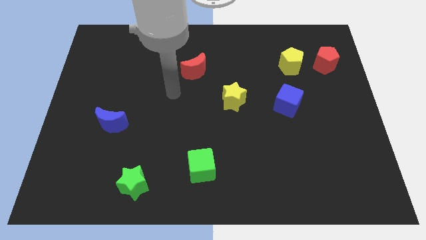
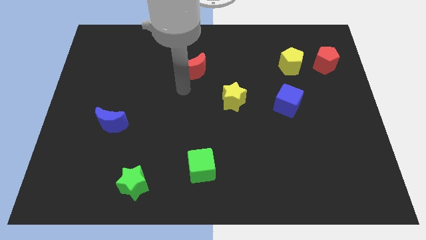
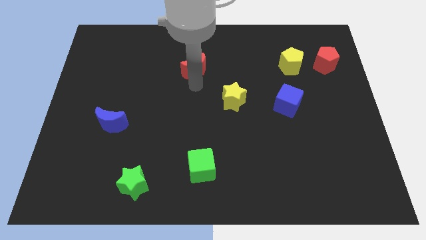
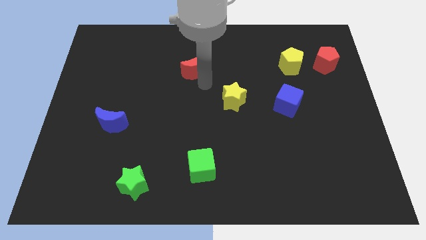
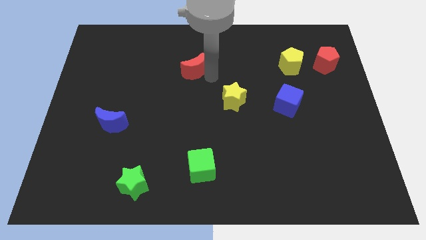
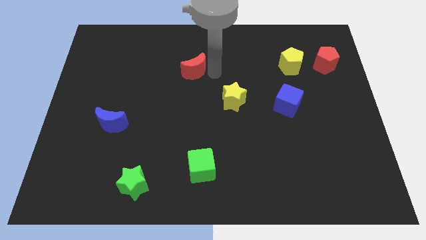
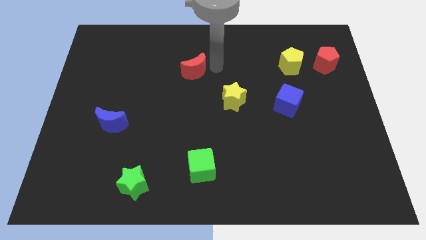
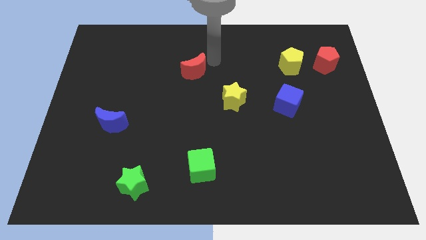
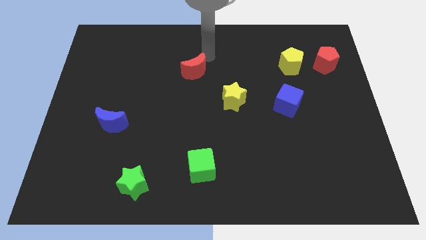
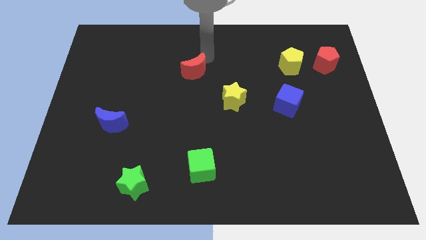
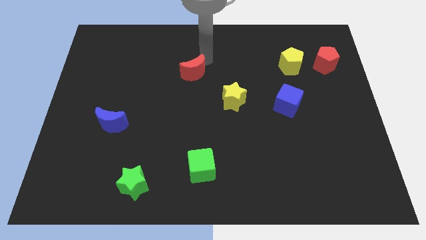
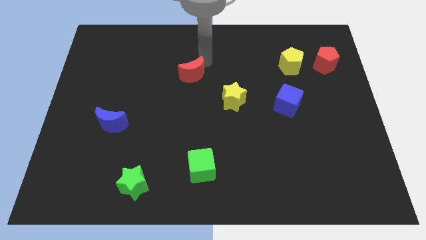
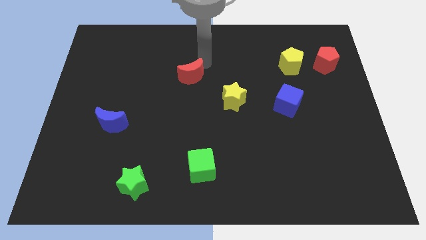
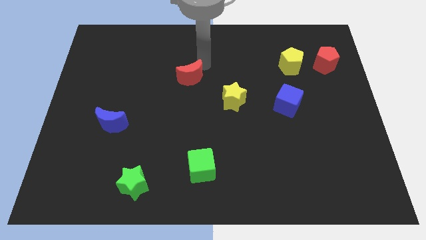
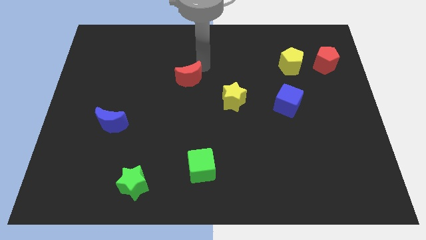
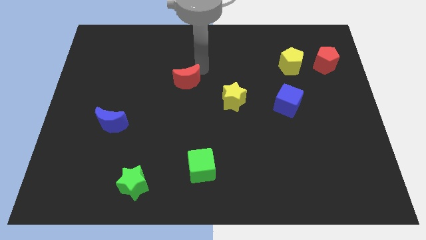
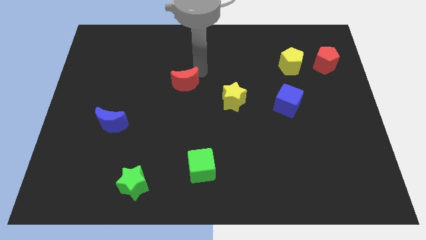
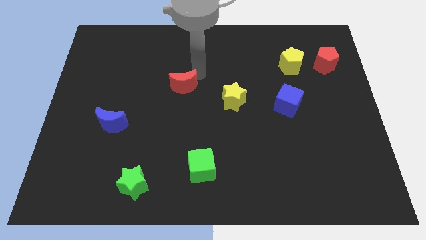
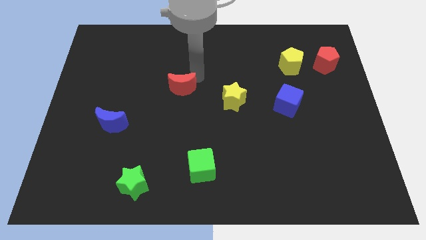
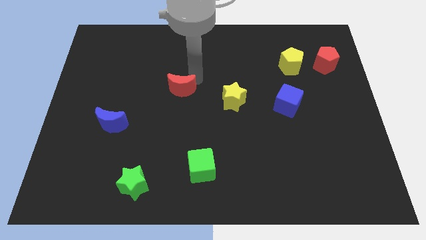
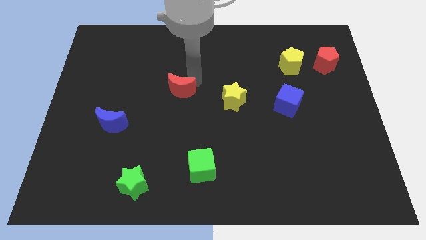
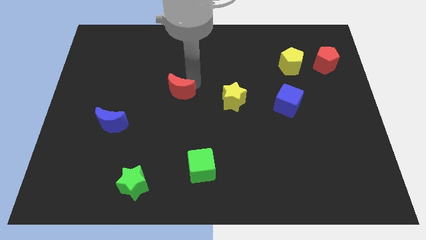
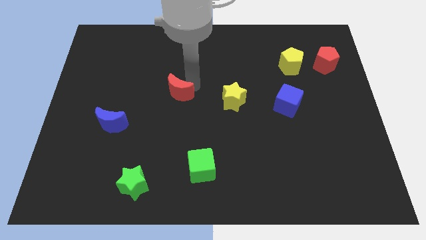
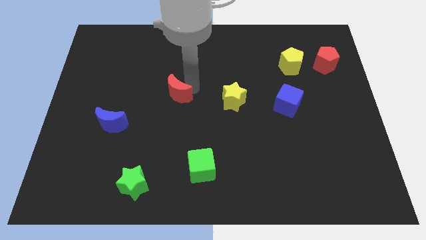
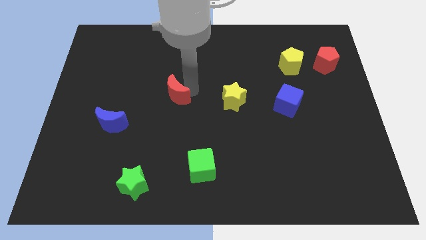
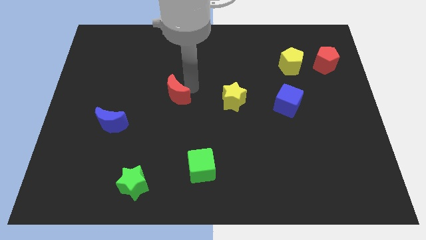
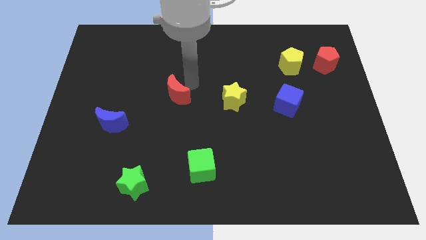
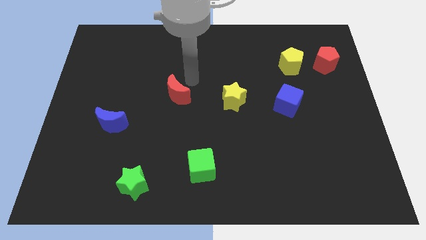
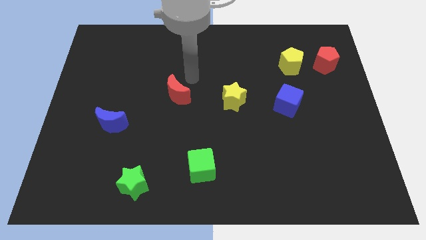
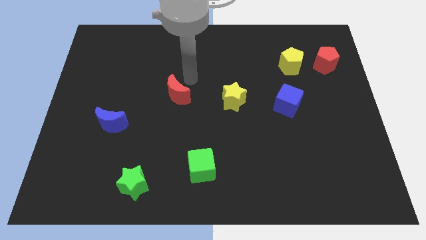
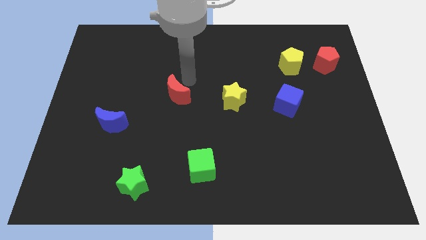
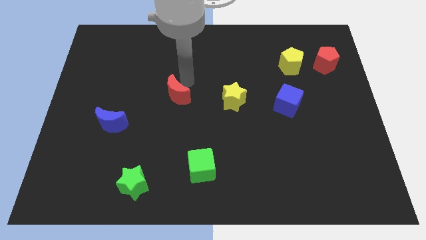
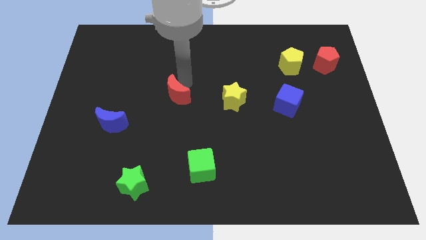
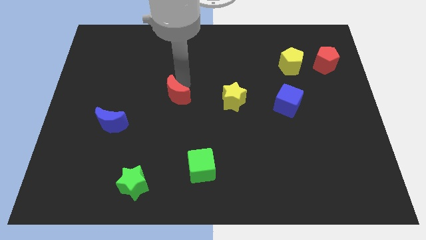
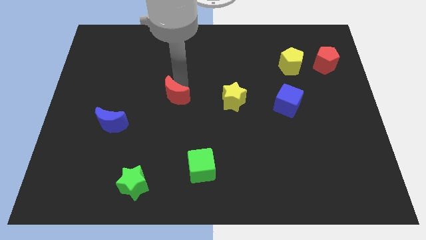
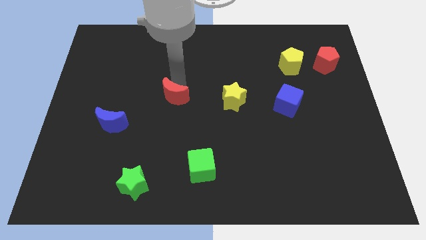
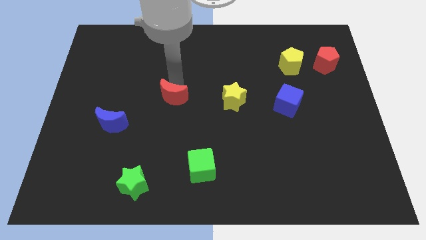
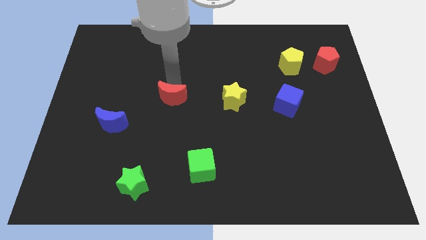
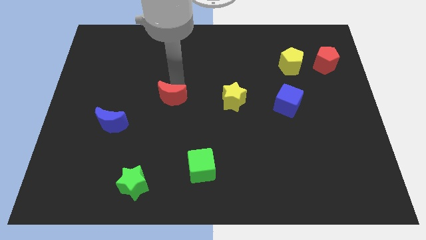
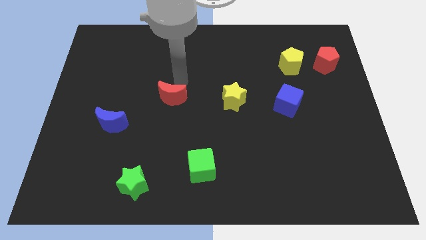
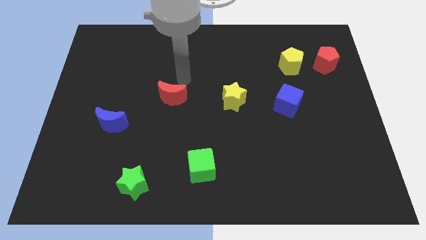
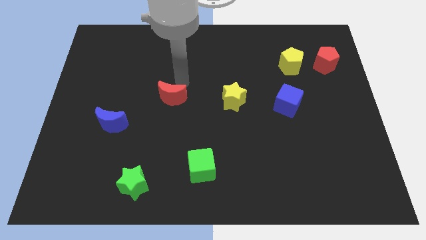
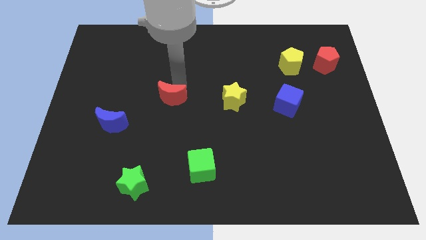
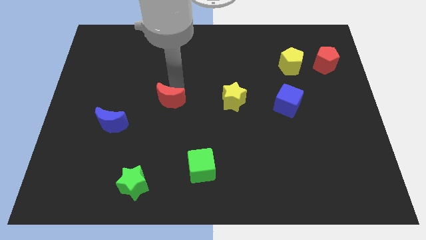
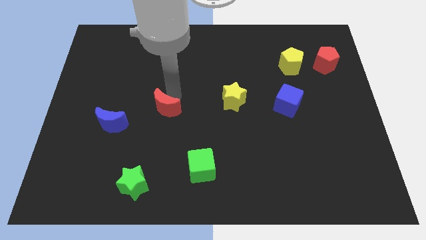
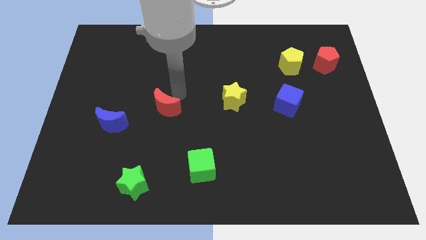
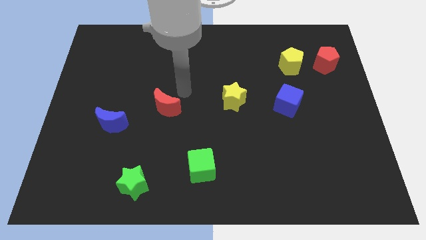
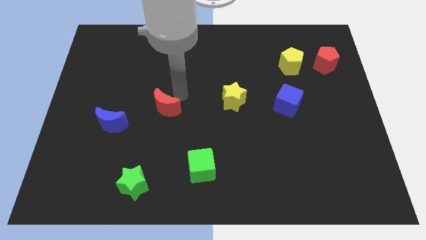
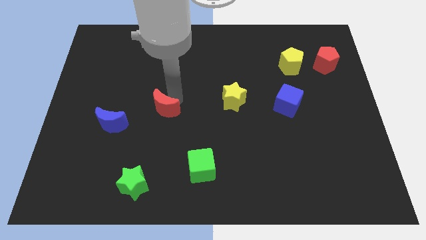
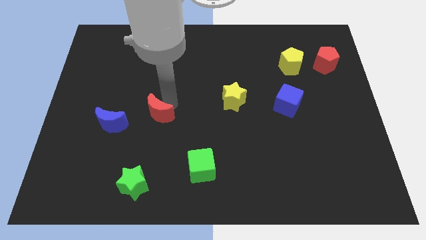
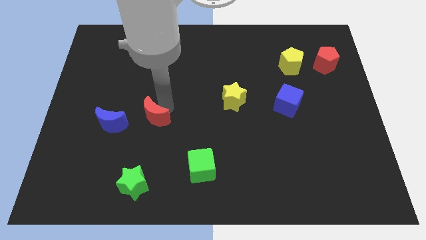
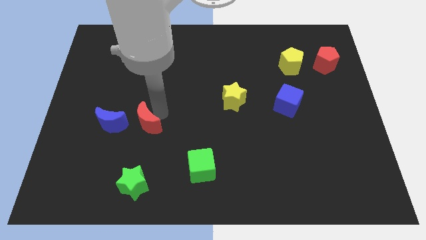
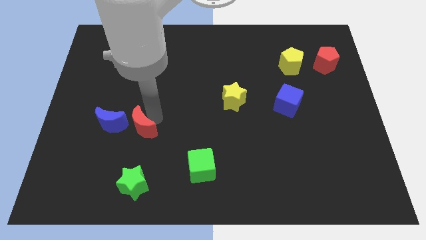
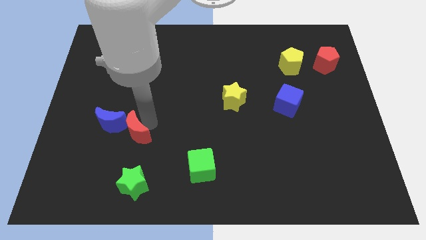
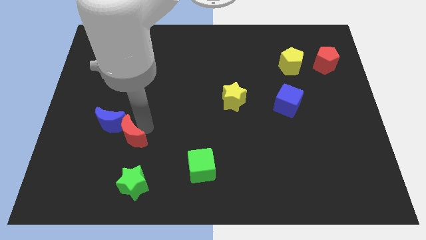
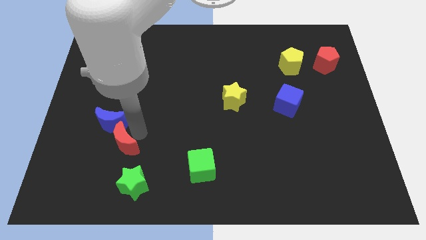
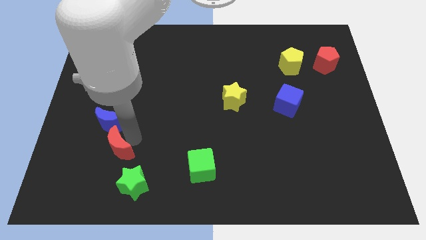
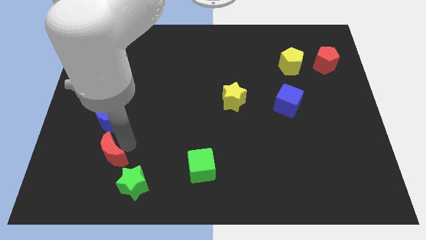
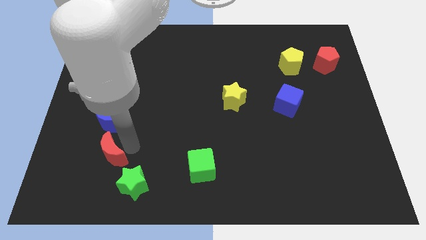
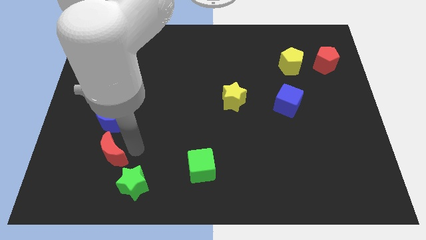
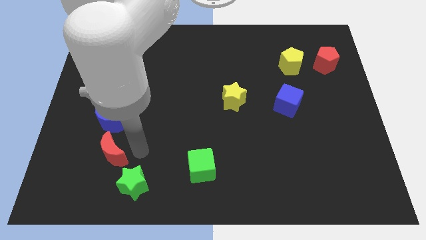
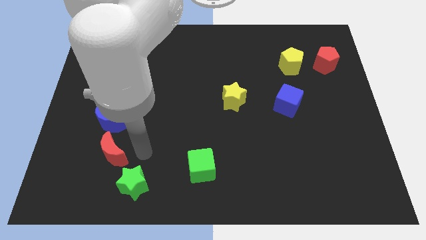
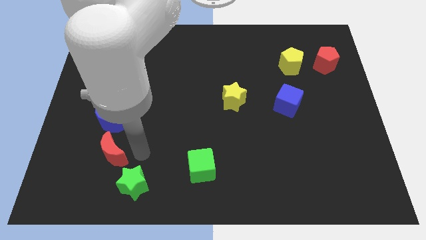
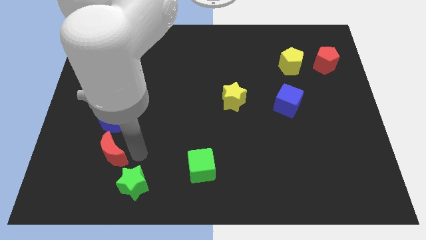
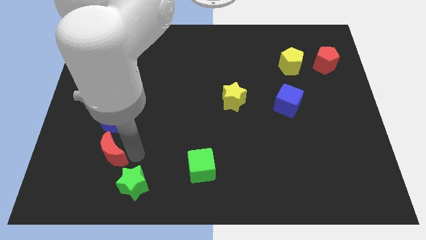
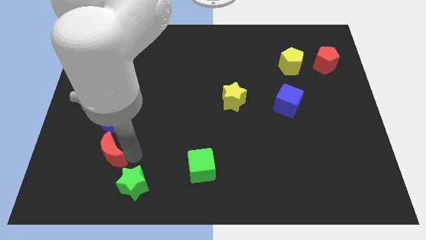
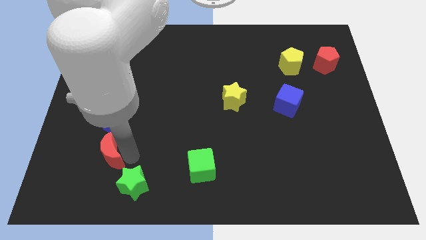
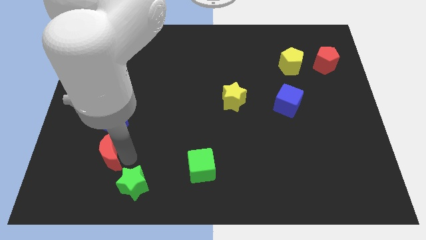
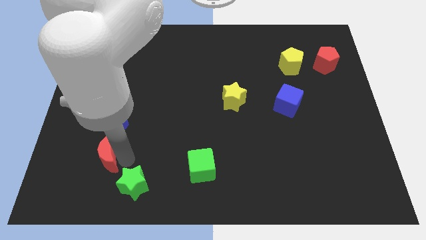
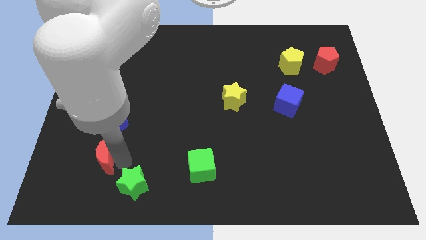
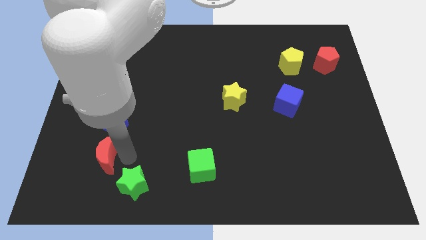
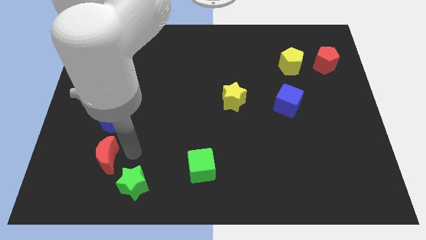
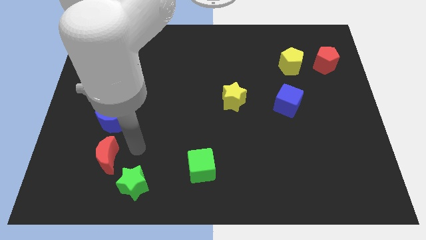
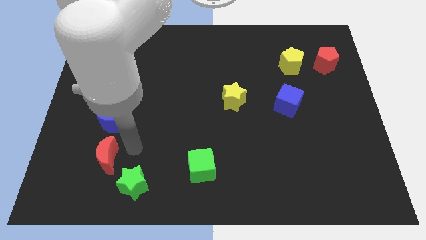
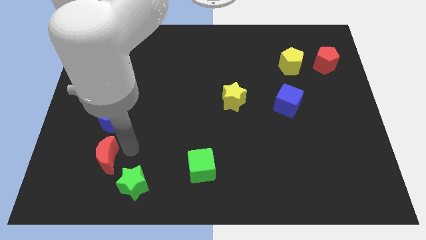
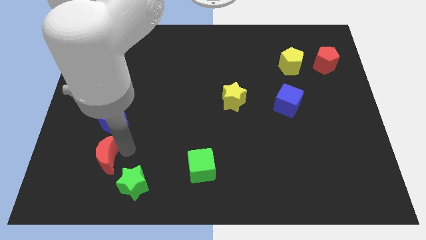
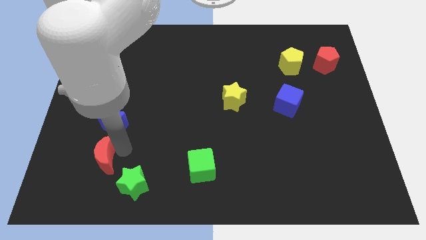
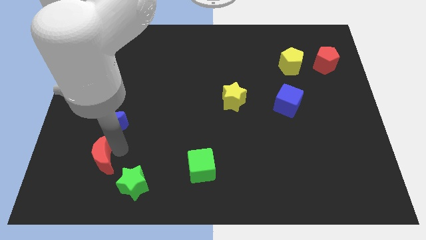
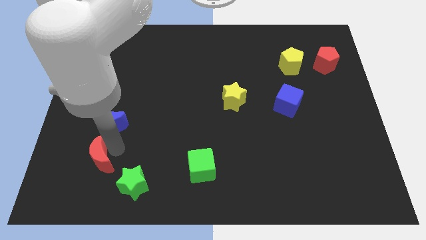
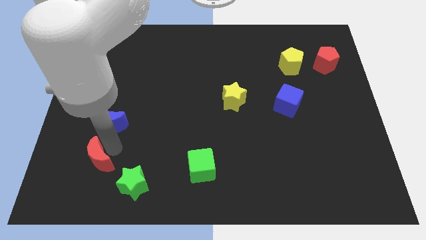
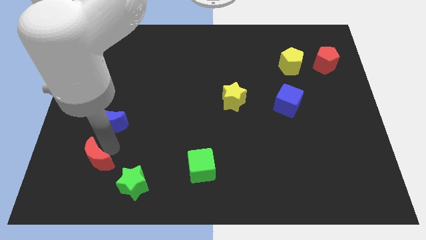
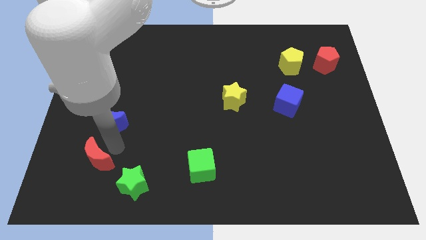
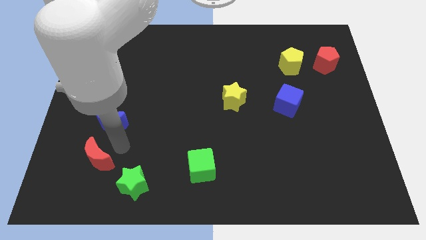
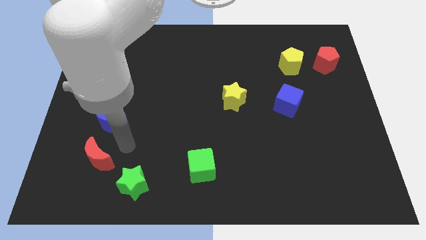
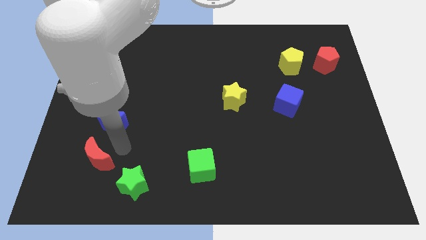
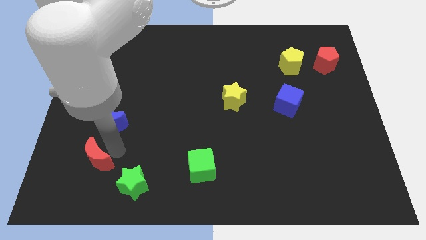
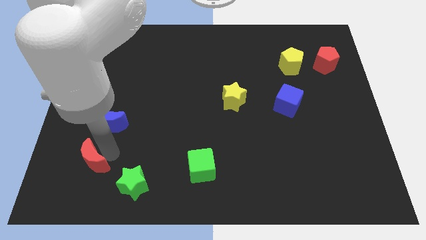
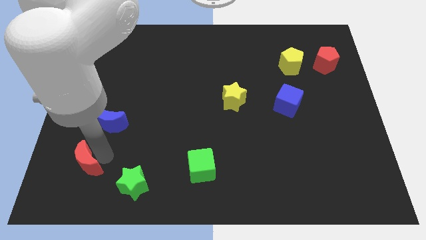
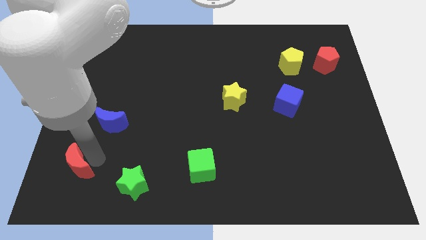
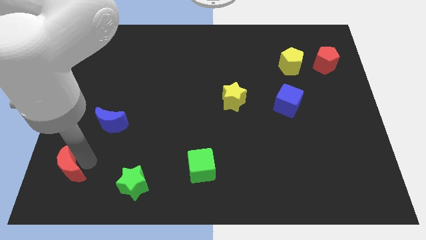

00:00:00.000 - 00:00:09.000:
push the red moon to the bottom left corner
